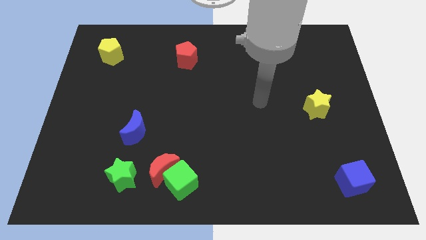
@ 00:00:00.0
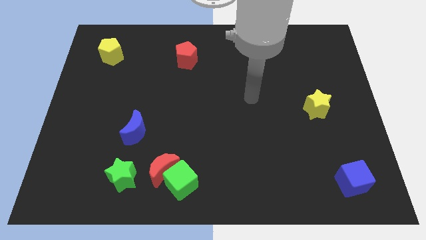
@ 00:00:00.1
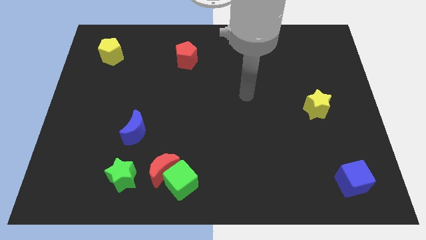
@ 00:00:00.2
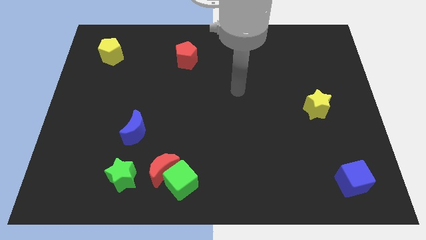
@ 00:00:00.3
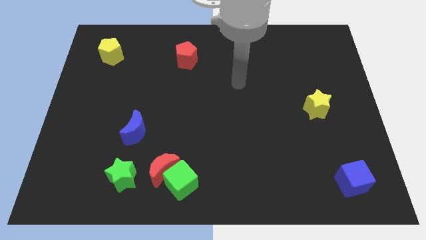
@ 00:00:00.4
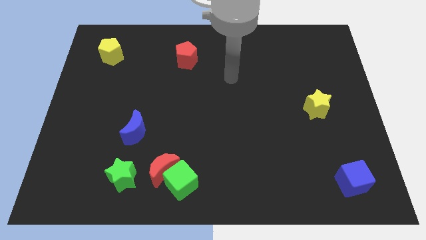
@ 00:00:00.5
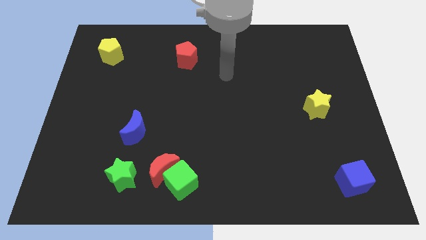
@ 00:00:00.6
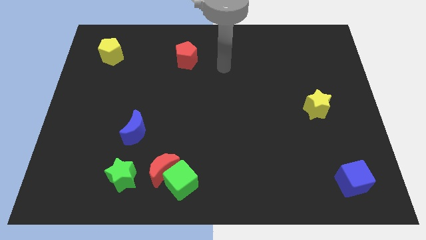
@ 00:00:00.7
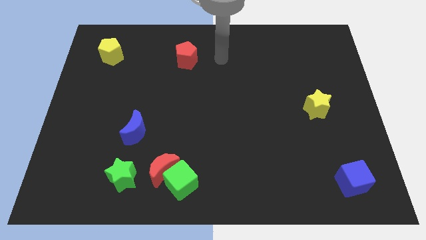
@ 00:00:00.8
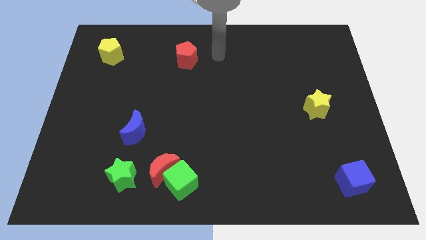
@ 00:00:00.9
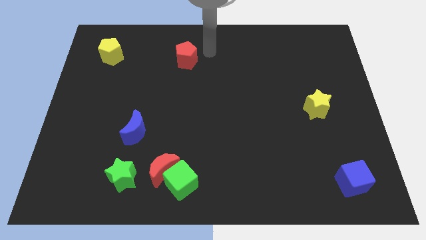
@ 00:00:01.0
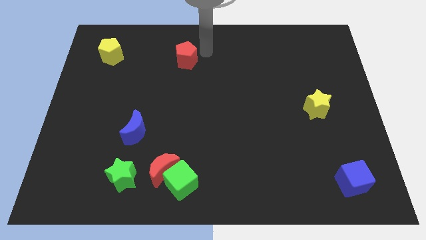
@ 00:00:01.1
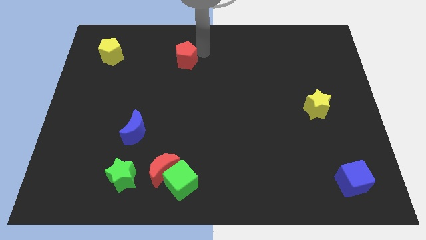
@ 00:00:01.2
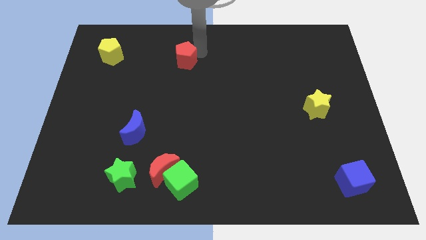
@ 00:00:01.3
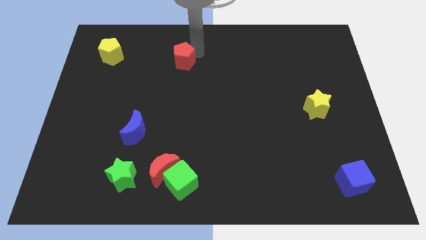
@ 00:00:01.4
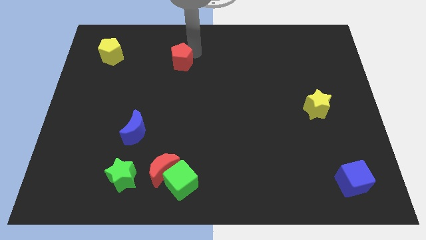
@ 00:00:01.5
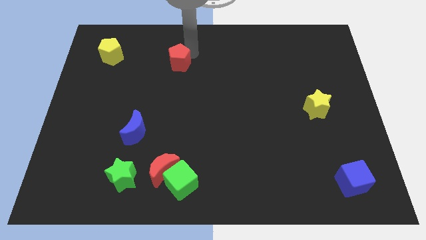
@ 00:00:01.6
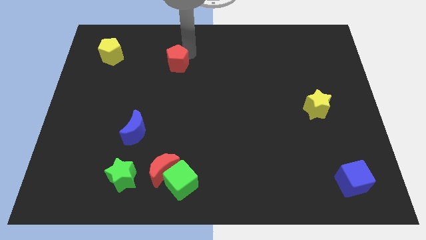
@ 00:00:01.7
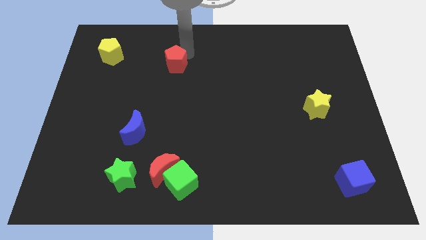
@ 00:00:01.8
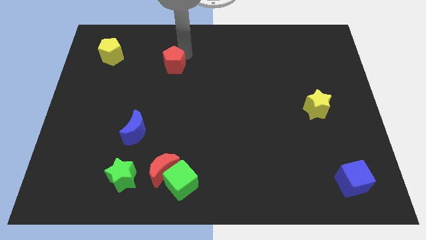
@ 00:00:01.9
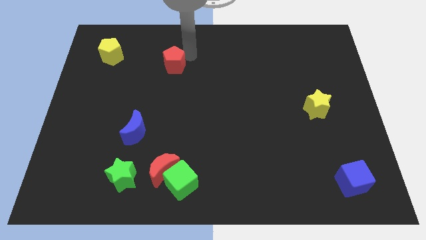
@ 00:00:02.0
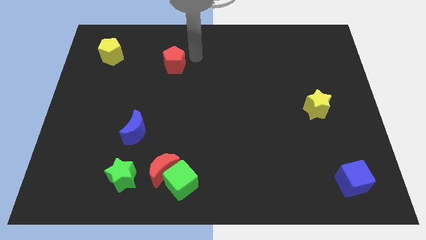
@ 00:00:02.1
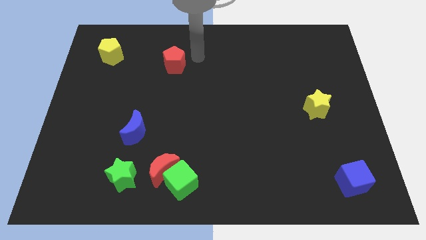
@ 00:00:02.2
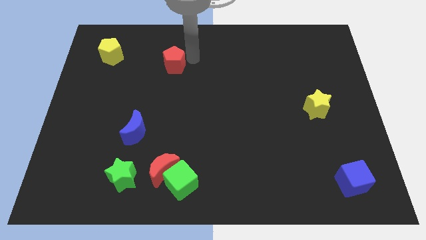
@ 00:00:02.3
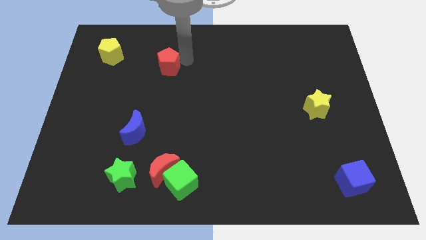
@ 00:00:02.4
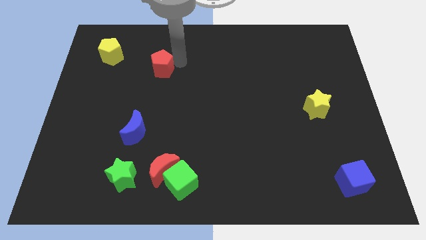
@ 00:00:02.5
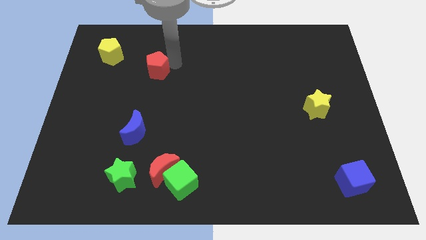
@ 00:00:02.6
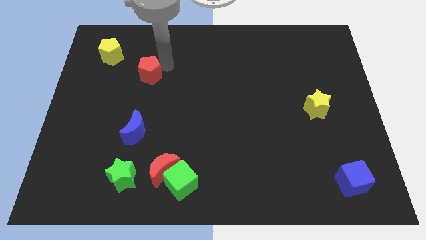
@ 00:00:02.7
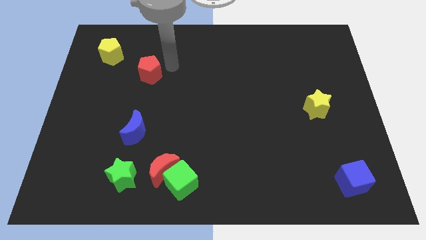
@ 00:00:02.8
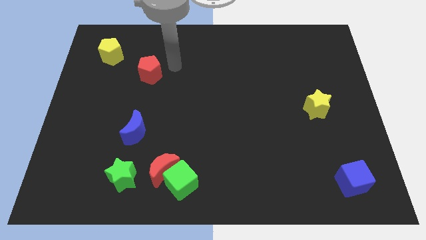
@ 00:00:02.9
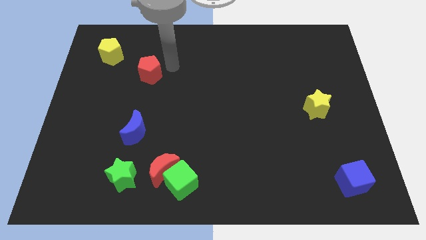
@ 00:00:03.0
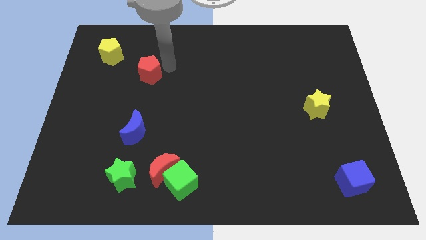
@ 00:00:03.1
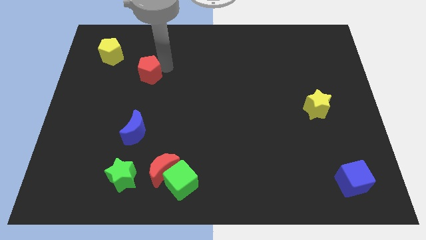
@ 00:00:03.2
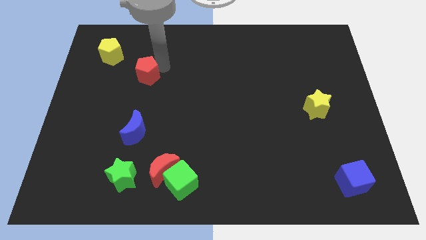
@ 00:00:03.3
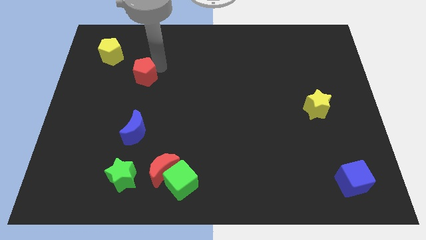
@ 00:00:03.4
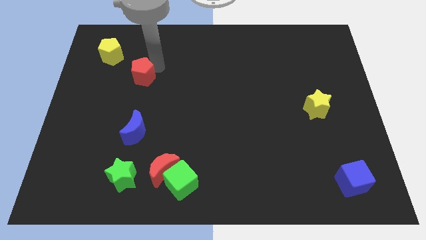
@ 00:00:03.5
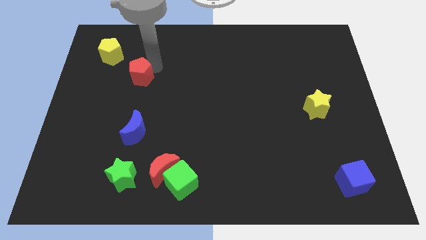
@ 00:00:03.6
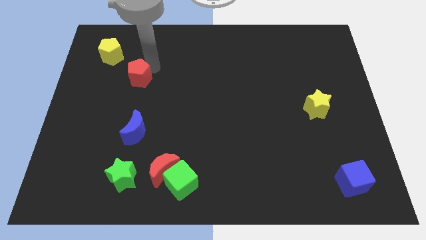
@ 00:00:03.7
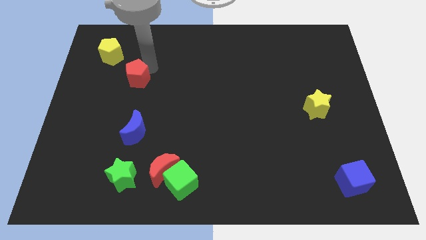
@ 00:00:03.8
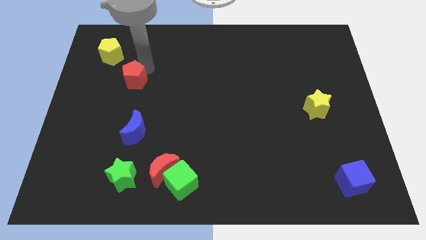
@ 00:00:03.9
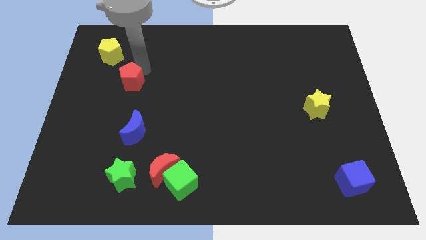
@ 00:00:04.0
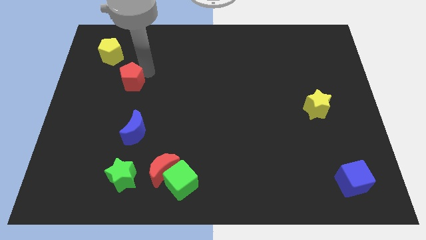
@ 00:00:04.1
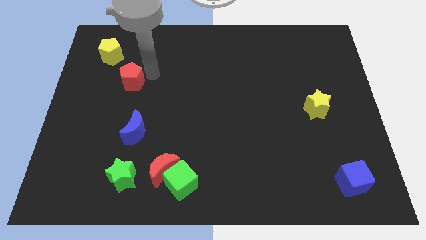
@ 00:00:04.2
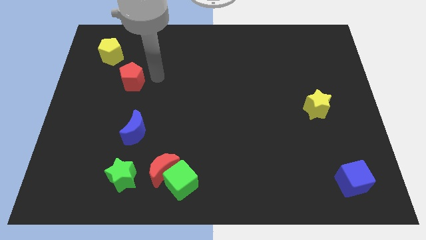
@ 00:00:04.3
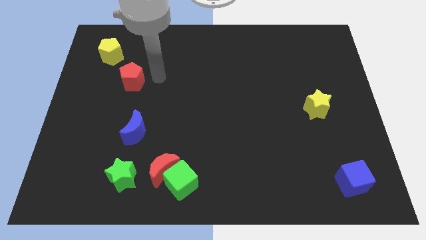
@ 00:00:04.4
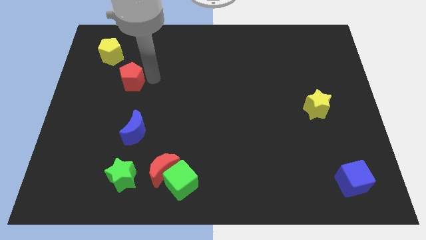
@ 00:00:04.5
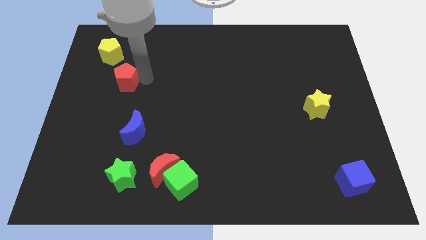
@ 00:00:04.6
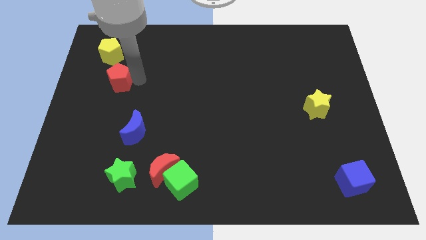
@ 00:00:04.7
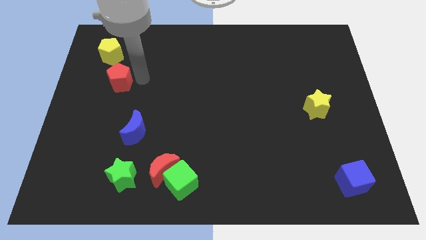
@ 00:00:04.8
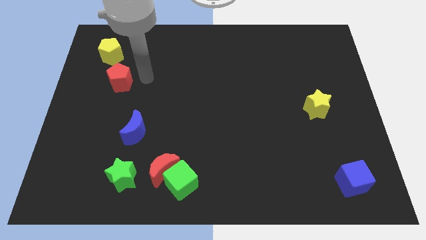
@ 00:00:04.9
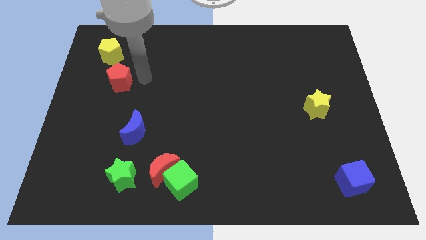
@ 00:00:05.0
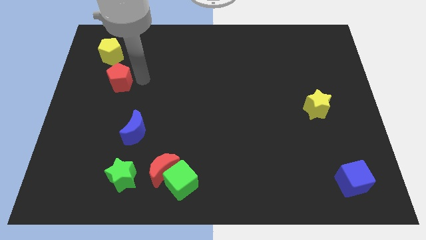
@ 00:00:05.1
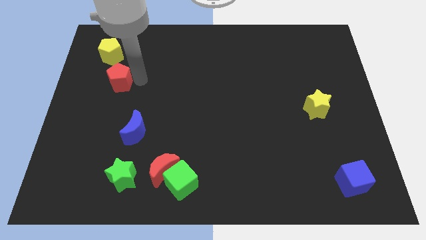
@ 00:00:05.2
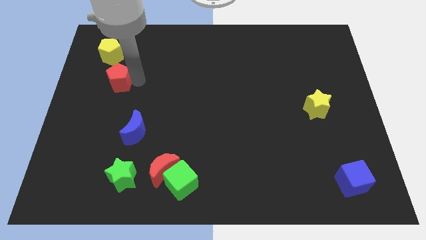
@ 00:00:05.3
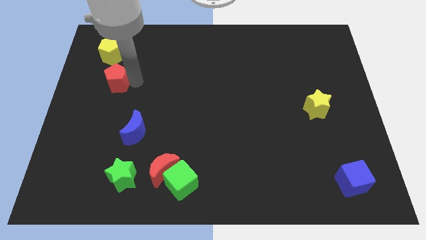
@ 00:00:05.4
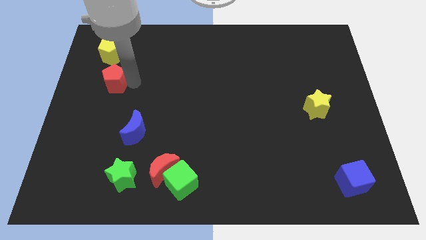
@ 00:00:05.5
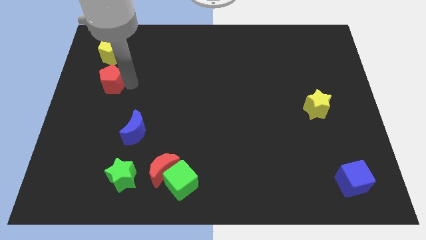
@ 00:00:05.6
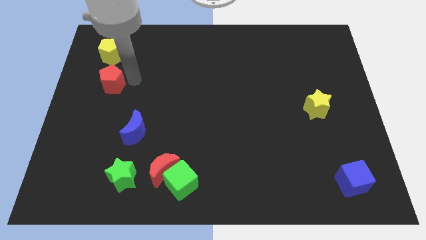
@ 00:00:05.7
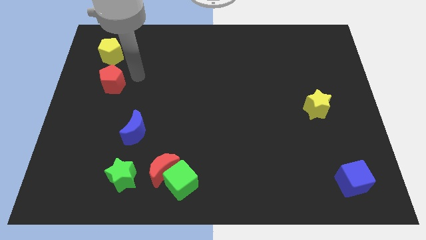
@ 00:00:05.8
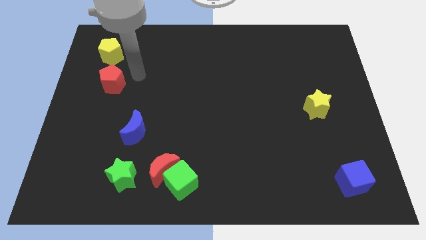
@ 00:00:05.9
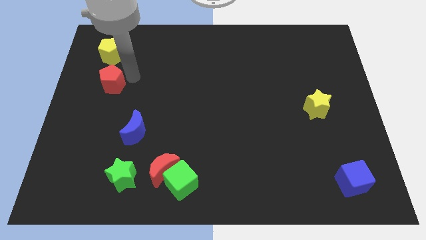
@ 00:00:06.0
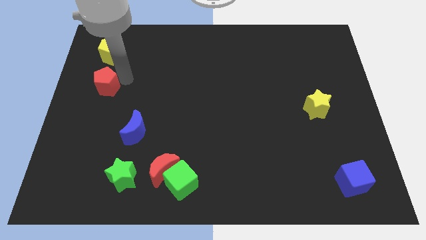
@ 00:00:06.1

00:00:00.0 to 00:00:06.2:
move the red pentagon to the left side

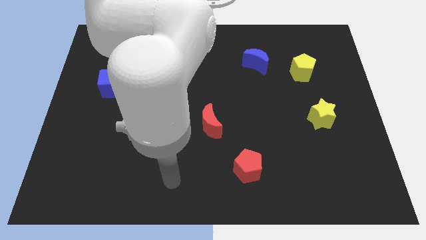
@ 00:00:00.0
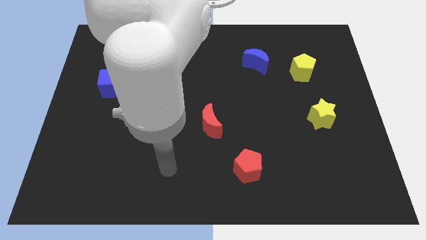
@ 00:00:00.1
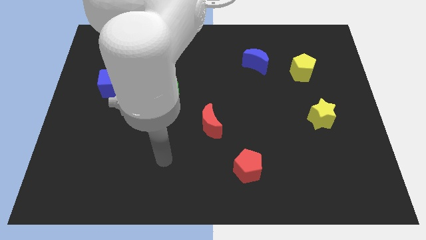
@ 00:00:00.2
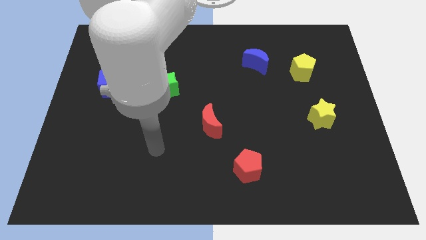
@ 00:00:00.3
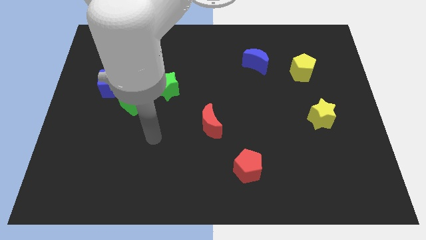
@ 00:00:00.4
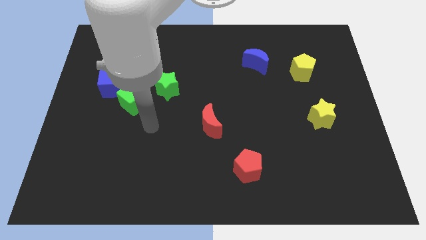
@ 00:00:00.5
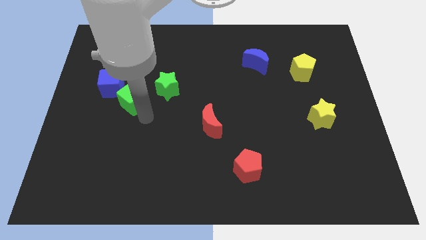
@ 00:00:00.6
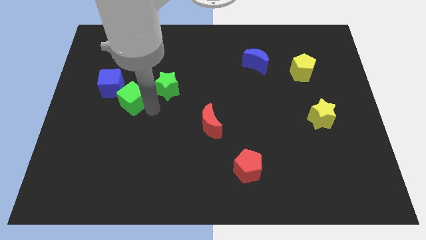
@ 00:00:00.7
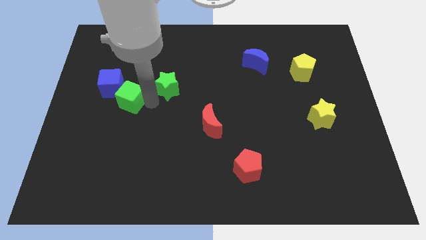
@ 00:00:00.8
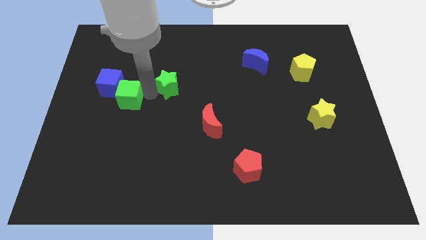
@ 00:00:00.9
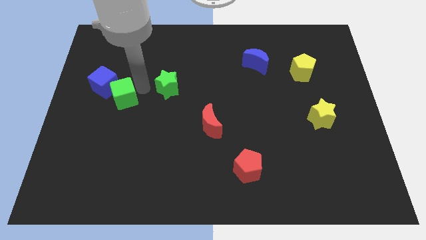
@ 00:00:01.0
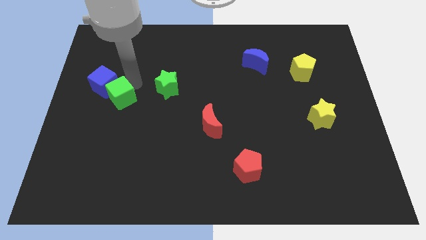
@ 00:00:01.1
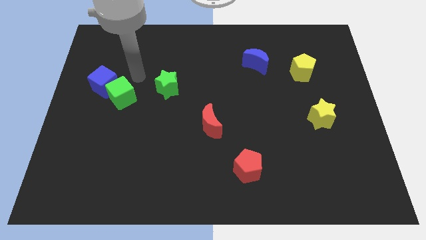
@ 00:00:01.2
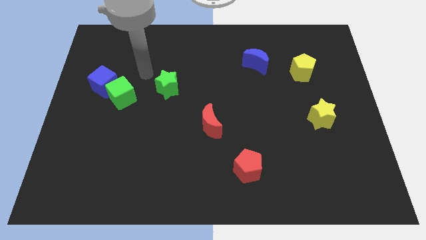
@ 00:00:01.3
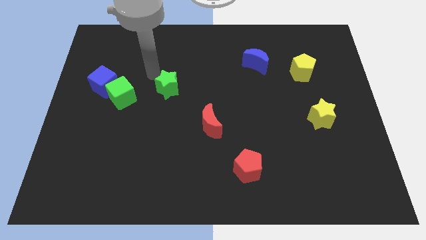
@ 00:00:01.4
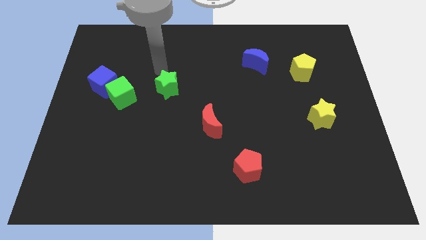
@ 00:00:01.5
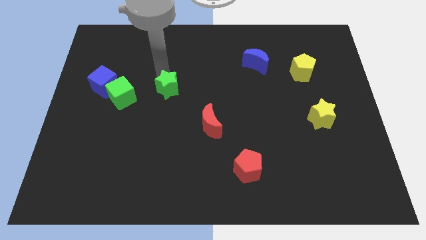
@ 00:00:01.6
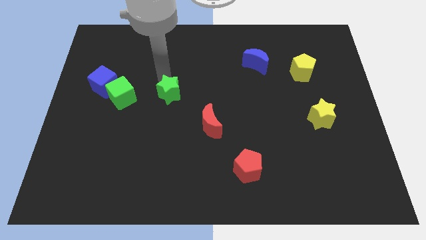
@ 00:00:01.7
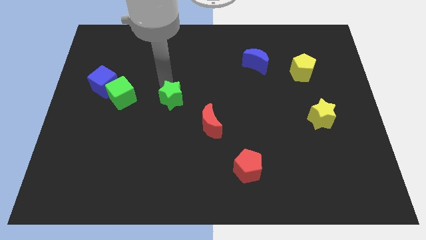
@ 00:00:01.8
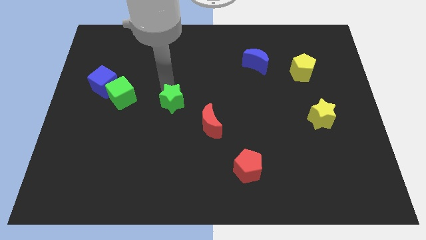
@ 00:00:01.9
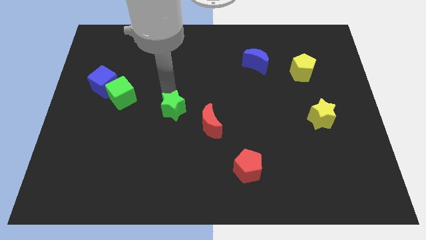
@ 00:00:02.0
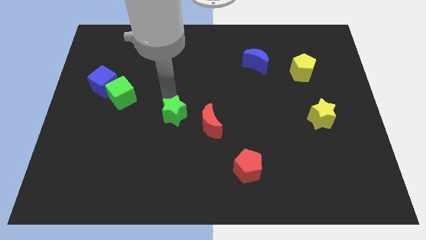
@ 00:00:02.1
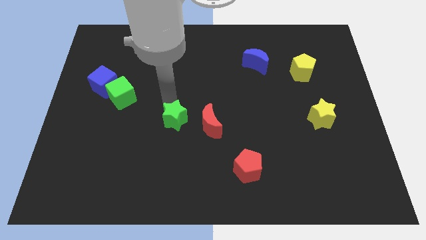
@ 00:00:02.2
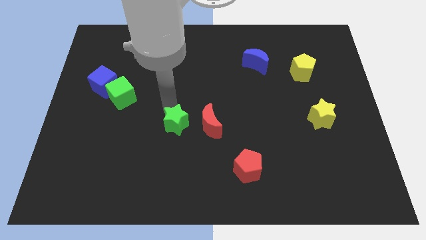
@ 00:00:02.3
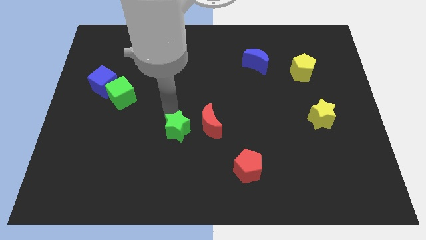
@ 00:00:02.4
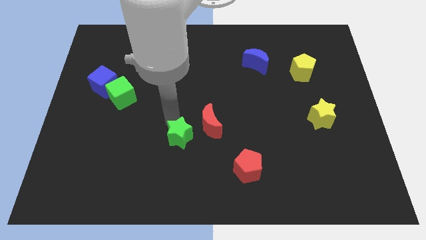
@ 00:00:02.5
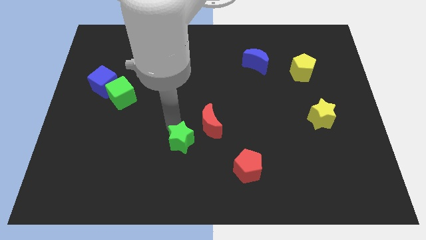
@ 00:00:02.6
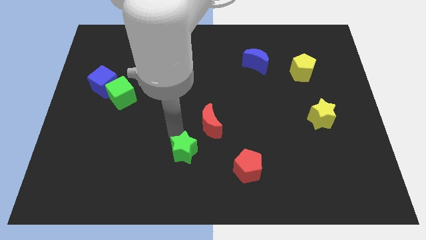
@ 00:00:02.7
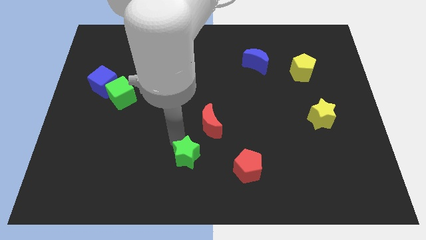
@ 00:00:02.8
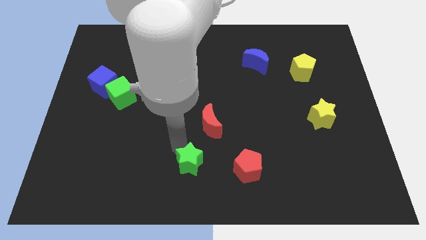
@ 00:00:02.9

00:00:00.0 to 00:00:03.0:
slide the green star to the bottom side
